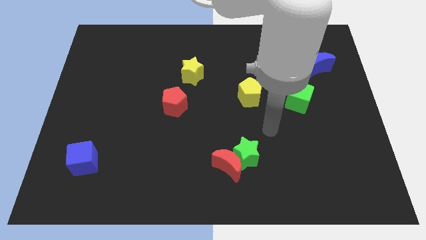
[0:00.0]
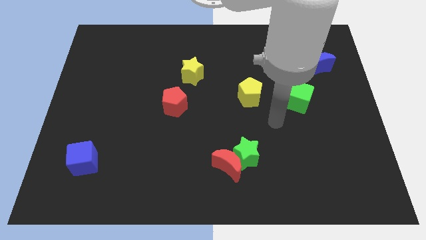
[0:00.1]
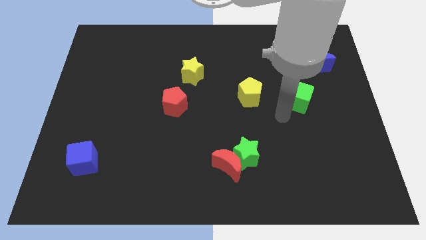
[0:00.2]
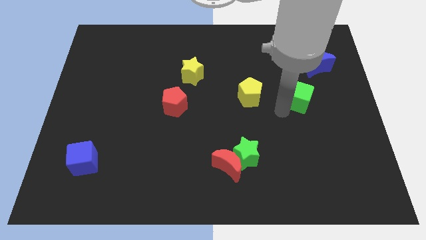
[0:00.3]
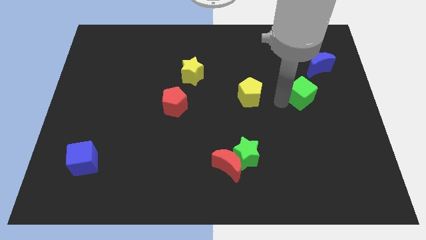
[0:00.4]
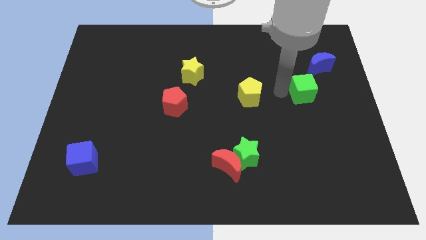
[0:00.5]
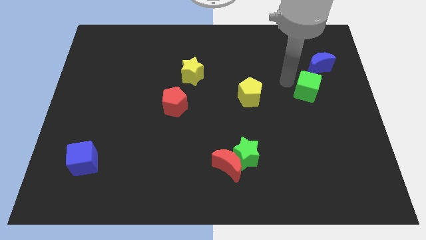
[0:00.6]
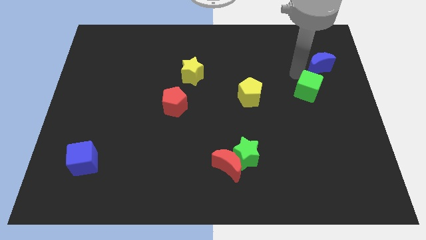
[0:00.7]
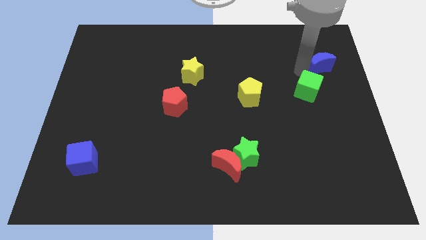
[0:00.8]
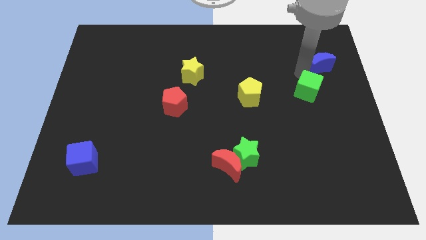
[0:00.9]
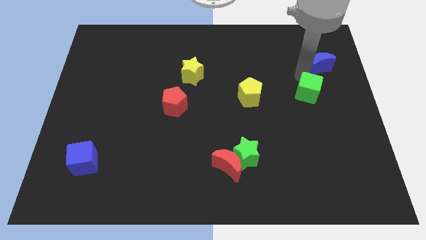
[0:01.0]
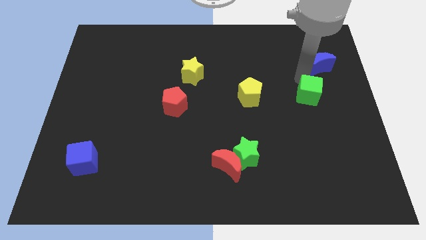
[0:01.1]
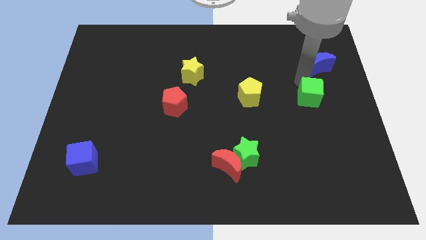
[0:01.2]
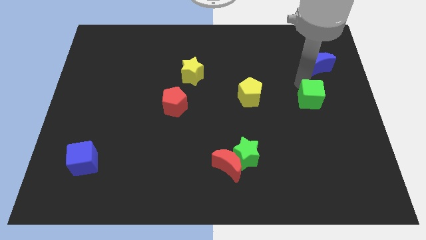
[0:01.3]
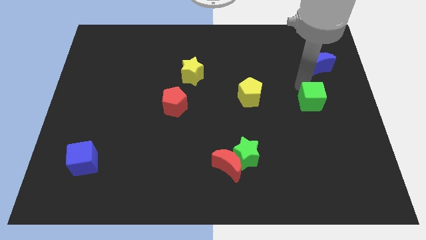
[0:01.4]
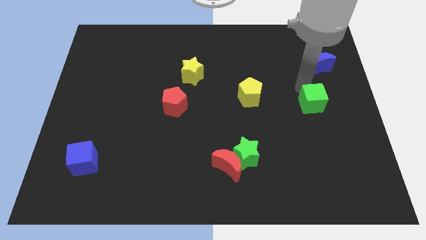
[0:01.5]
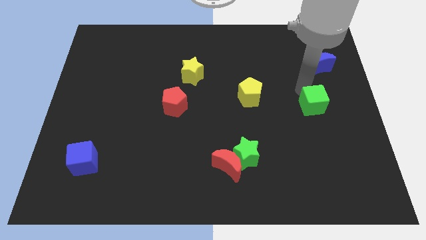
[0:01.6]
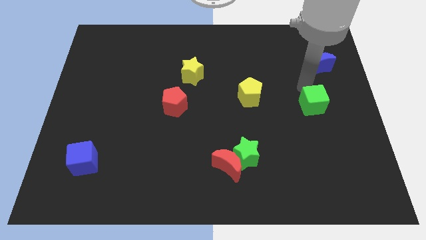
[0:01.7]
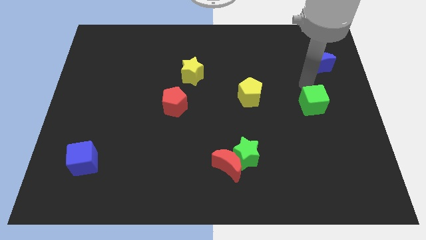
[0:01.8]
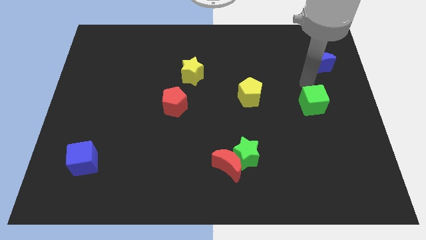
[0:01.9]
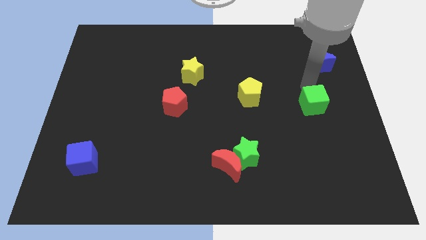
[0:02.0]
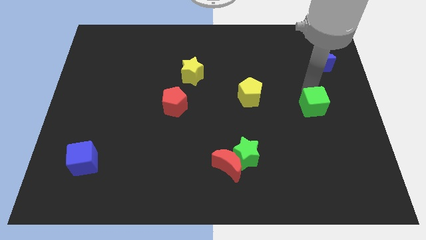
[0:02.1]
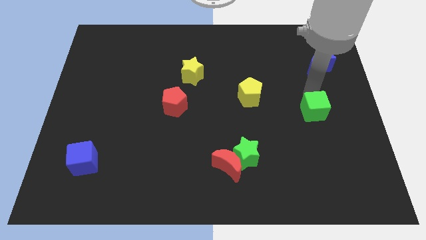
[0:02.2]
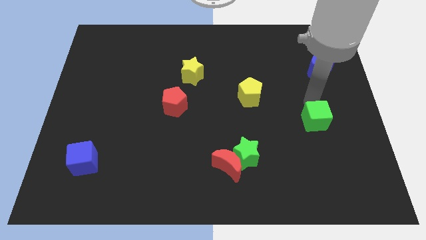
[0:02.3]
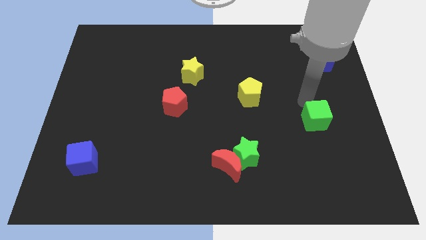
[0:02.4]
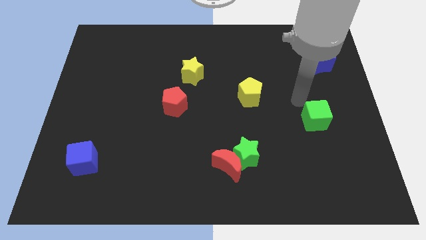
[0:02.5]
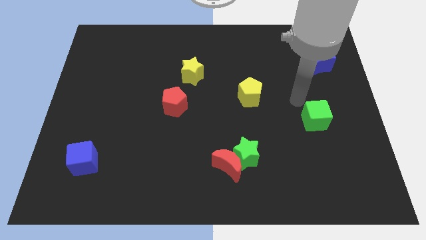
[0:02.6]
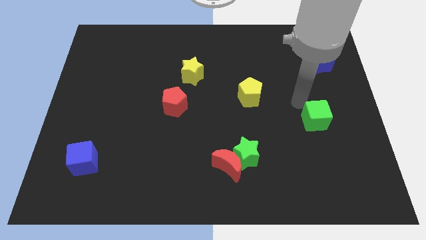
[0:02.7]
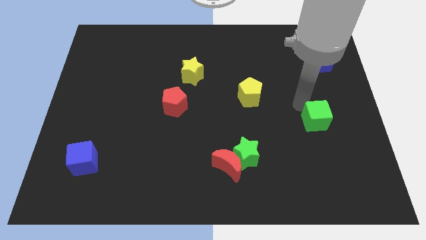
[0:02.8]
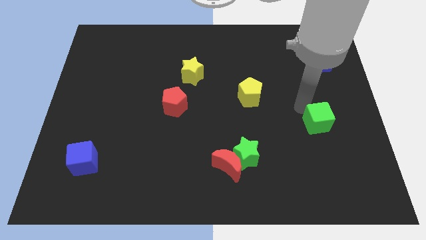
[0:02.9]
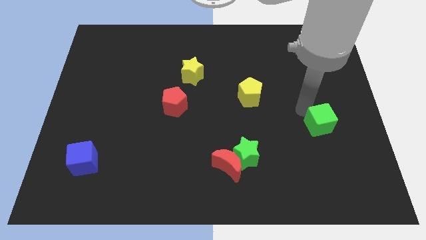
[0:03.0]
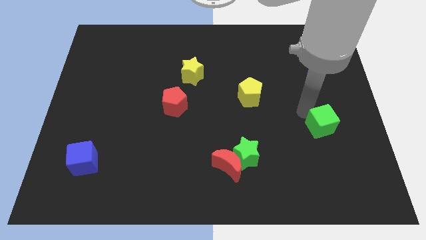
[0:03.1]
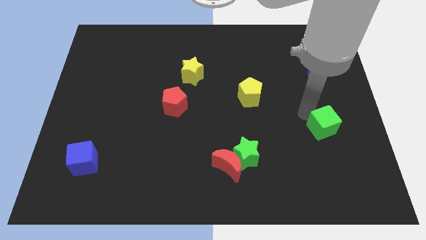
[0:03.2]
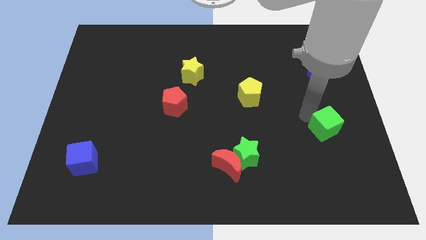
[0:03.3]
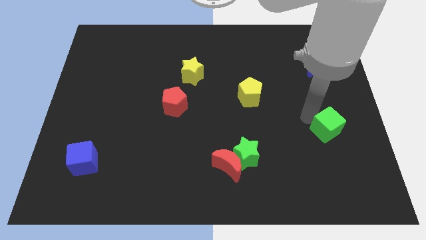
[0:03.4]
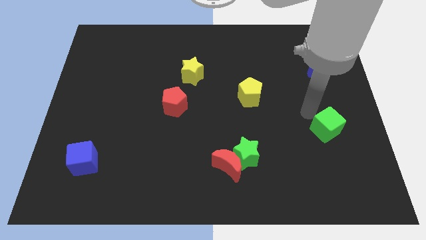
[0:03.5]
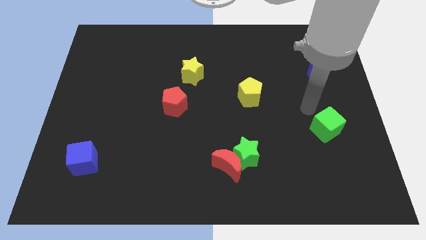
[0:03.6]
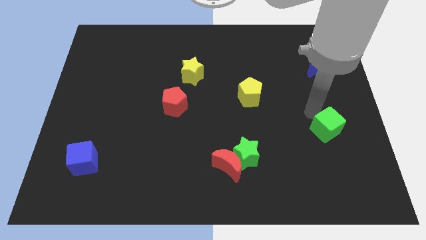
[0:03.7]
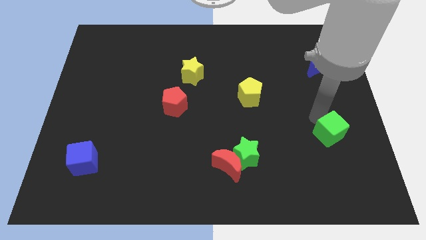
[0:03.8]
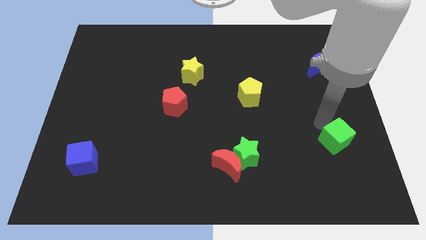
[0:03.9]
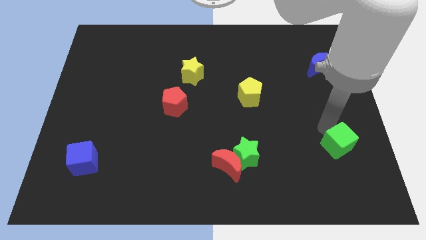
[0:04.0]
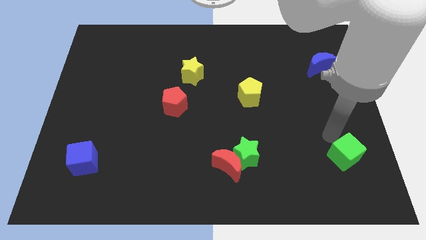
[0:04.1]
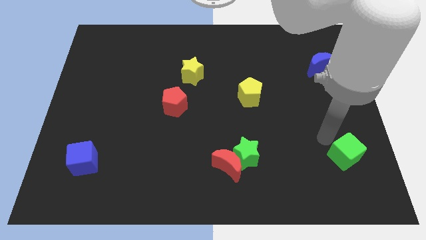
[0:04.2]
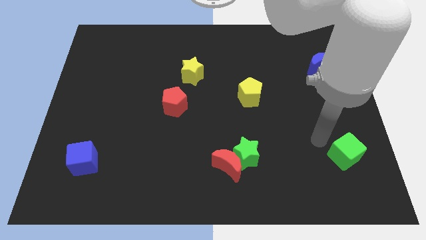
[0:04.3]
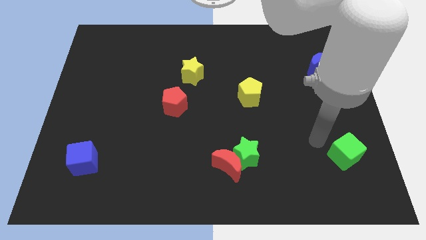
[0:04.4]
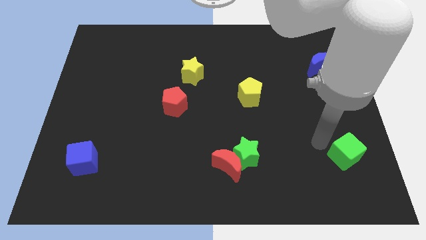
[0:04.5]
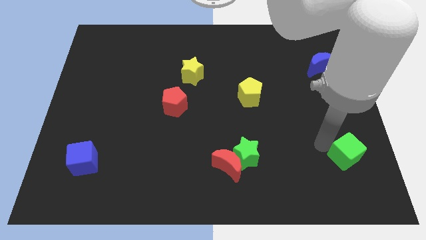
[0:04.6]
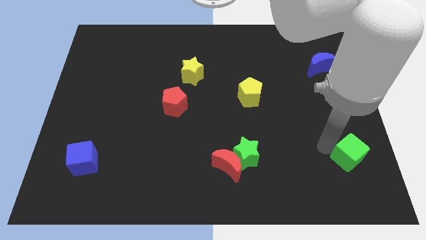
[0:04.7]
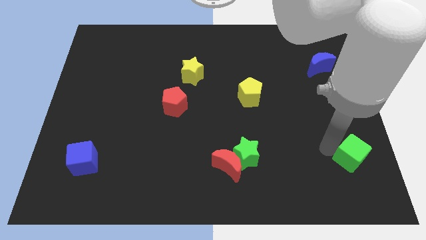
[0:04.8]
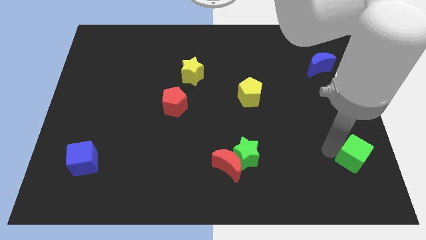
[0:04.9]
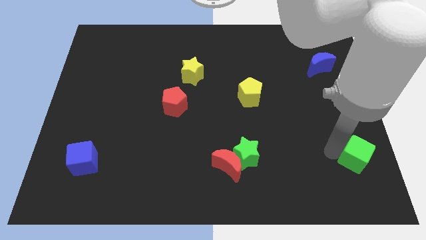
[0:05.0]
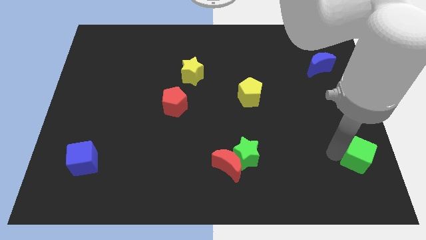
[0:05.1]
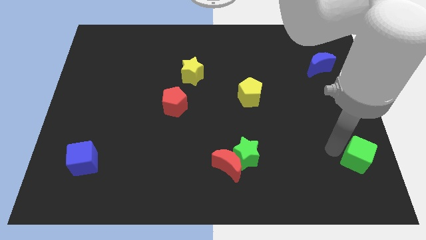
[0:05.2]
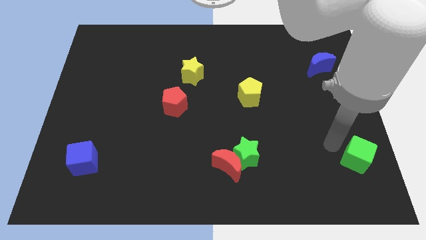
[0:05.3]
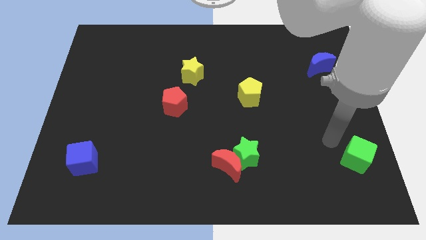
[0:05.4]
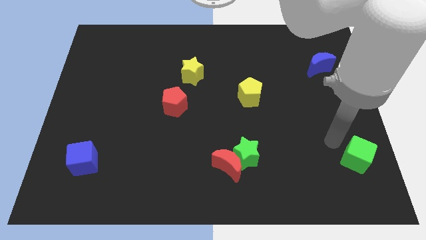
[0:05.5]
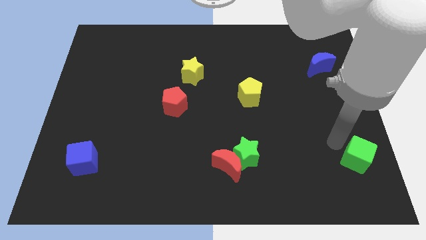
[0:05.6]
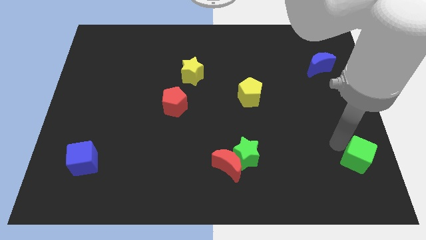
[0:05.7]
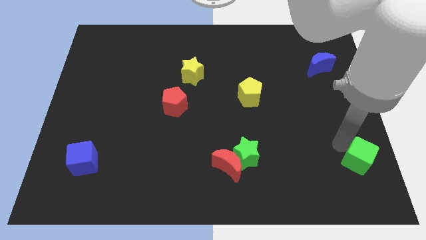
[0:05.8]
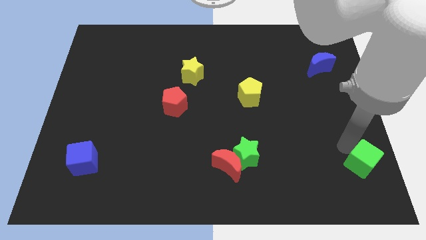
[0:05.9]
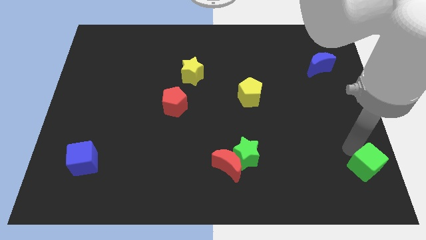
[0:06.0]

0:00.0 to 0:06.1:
put the green cube to the bottom right corner
